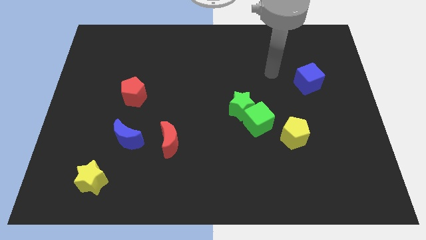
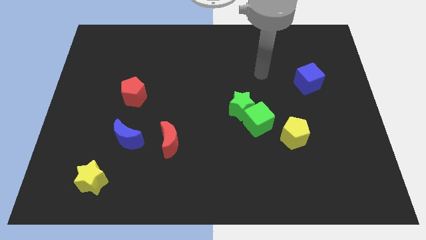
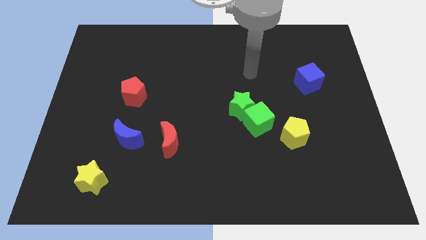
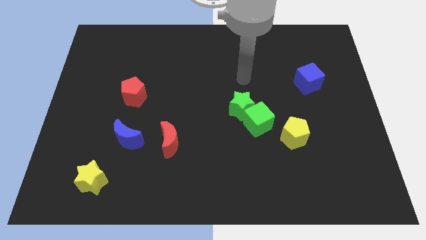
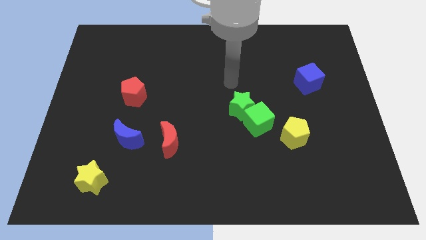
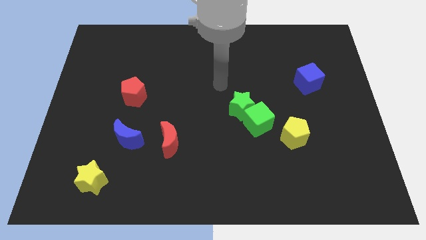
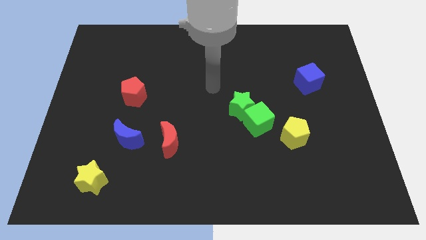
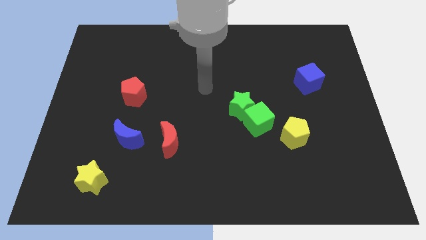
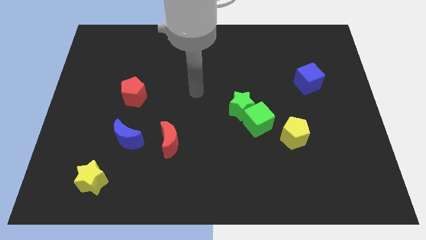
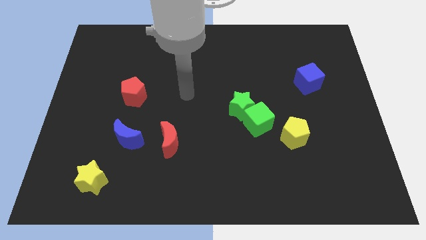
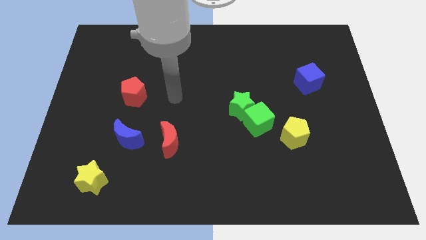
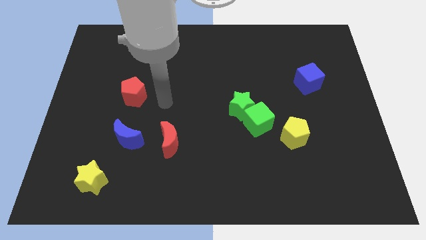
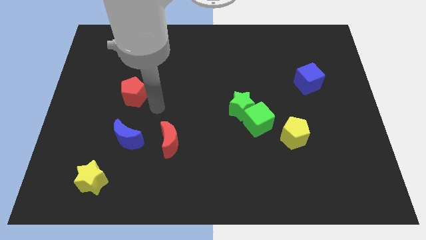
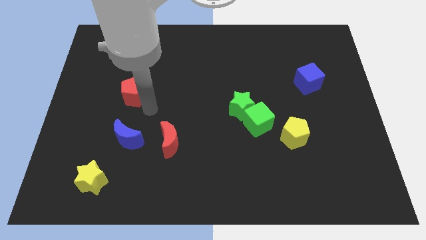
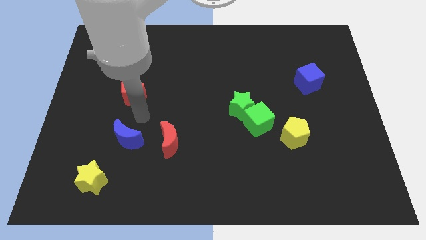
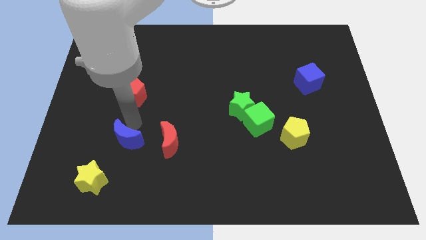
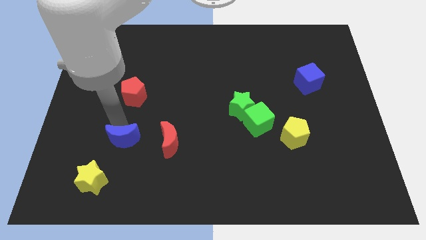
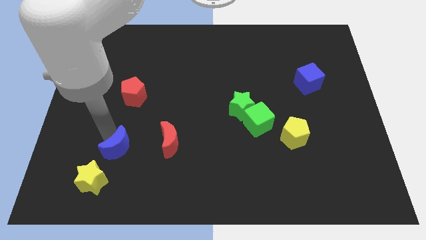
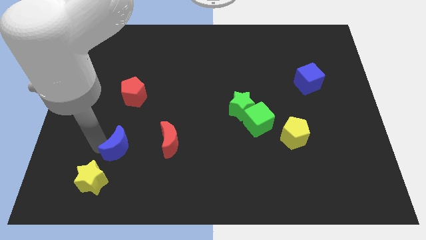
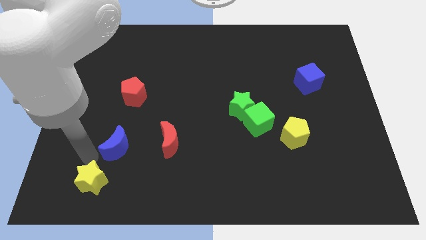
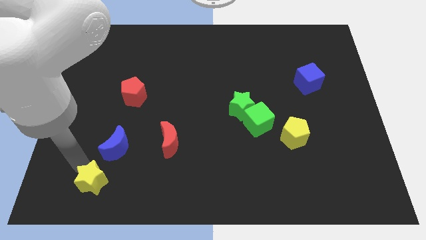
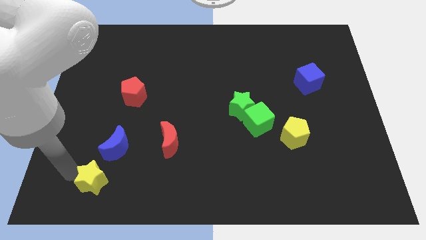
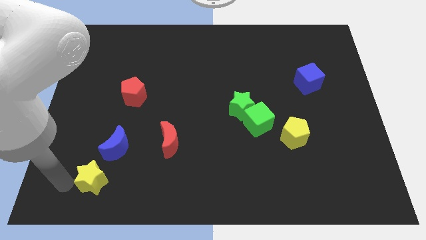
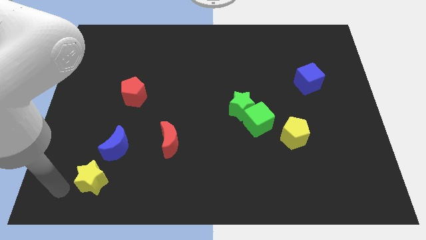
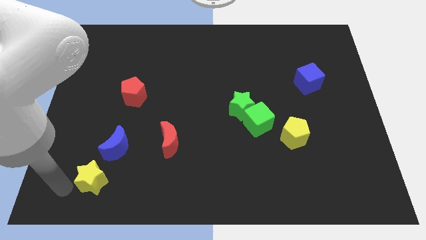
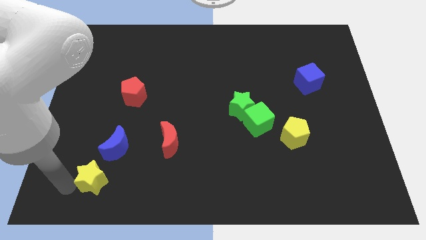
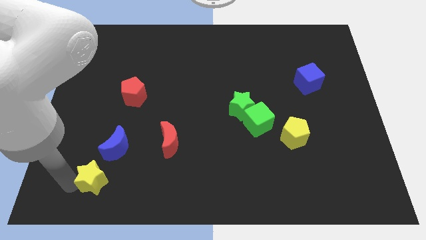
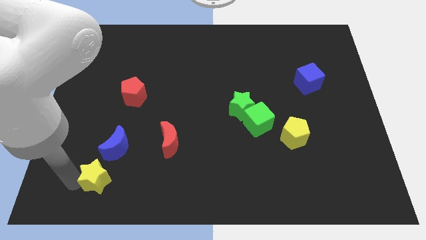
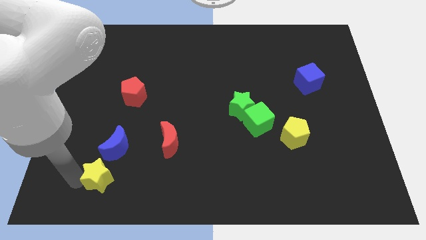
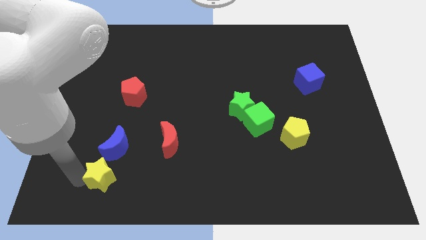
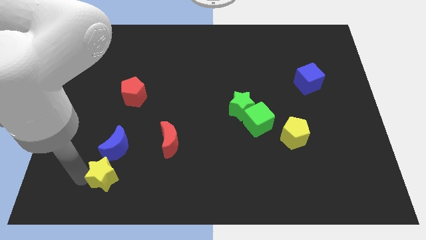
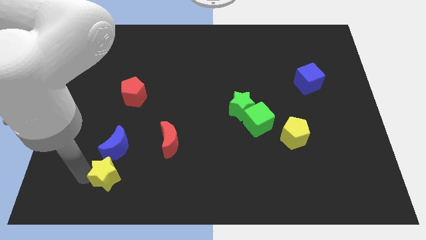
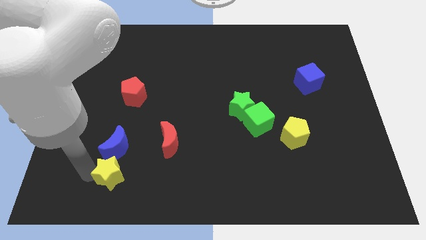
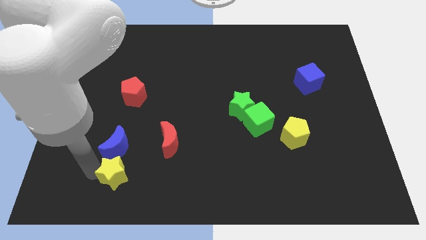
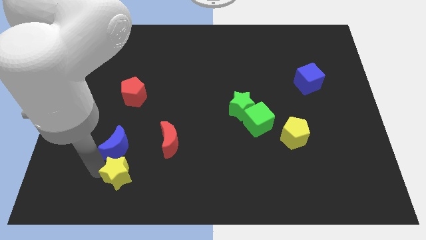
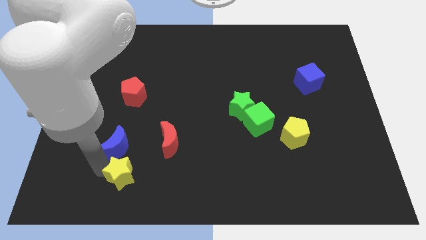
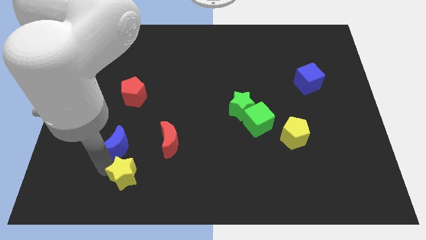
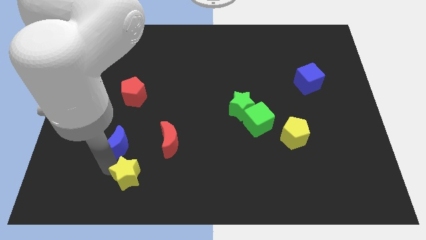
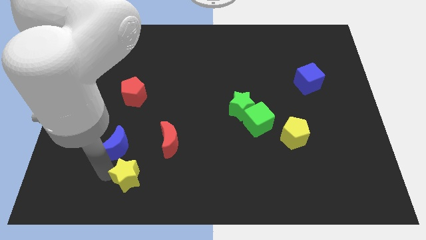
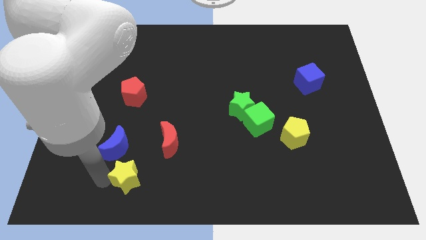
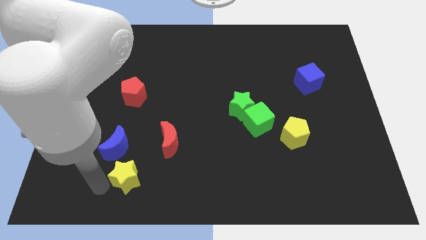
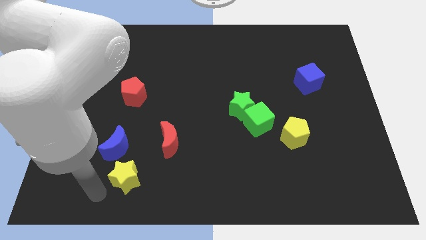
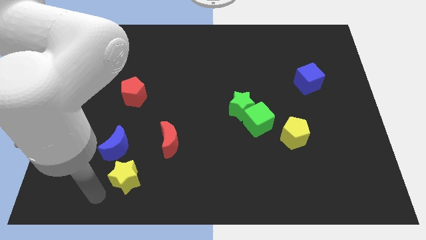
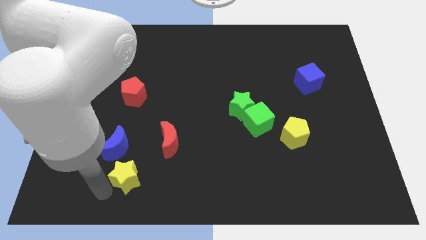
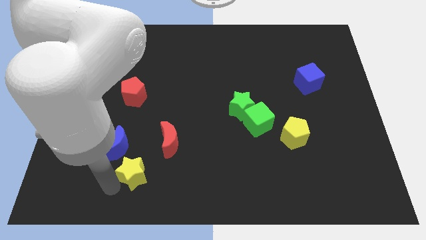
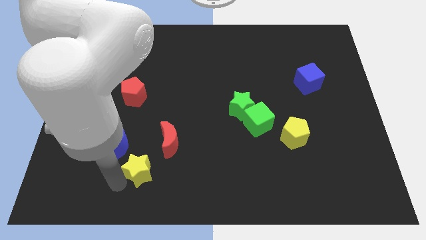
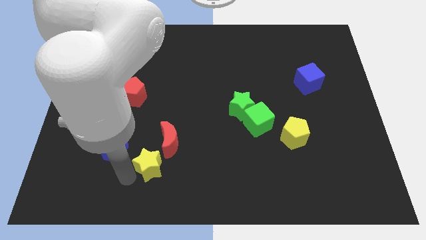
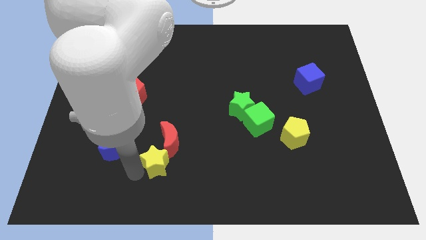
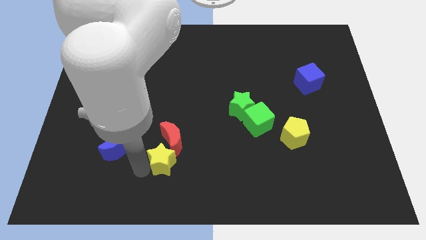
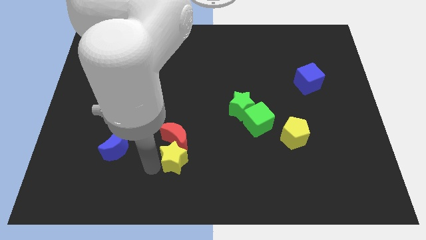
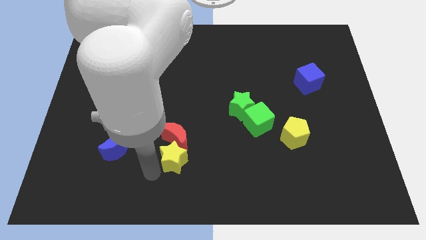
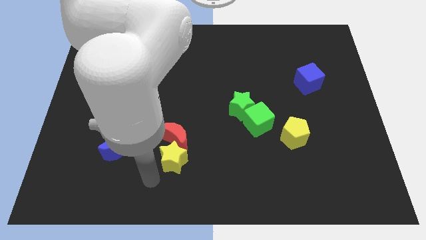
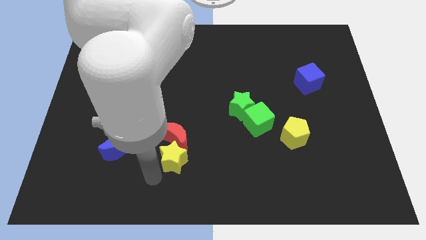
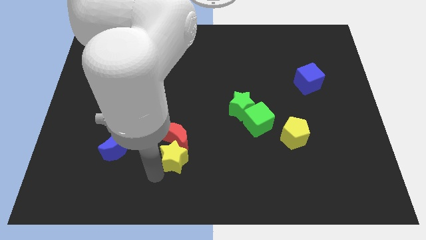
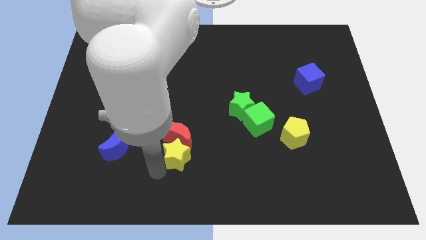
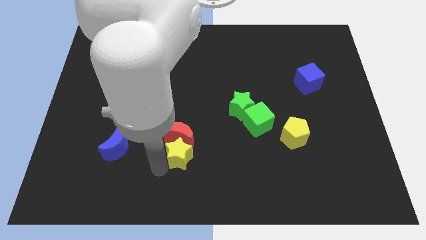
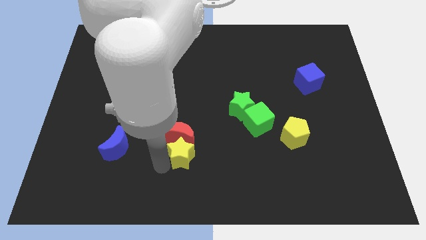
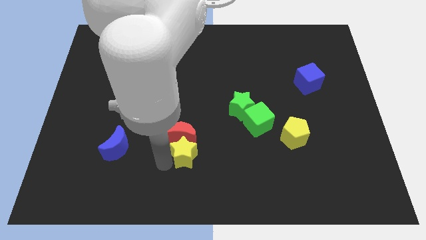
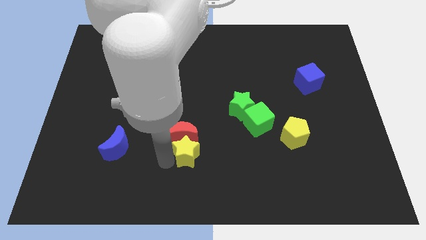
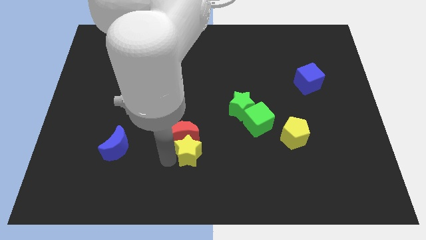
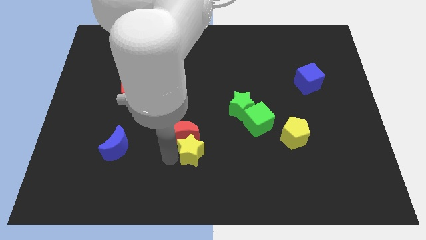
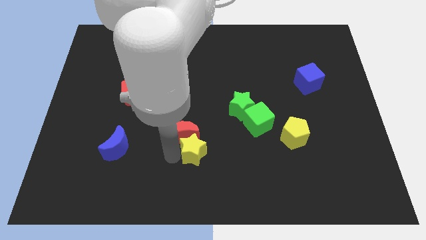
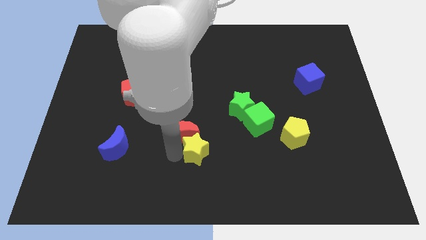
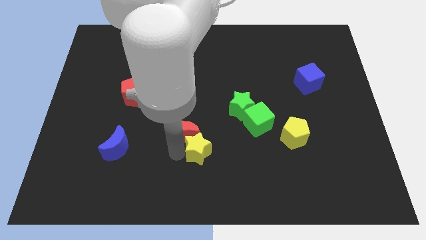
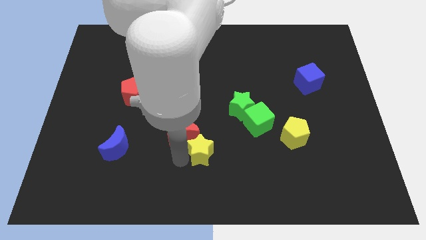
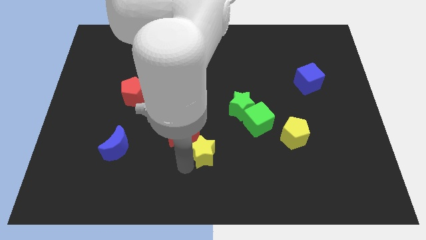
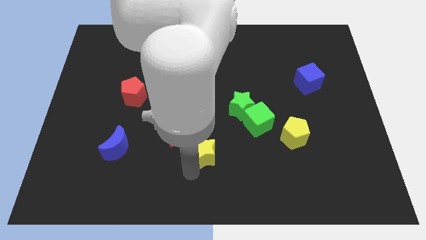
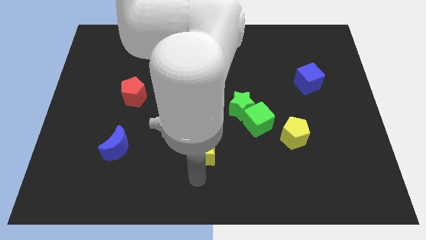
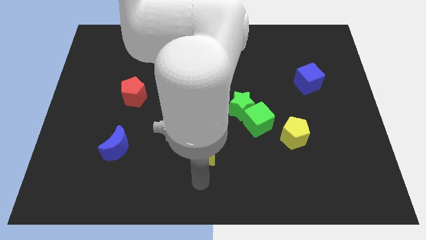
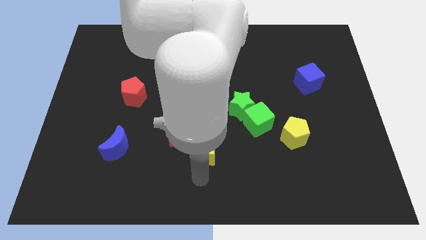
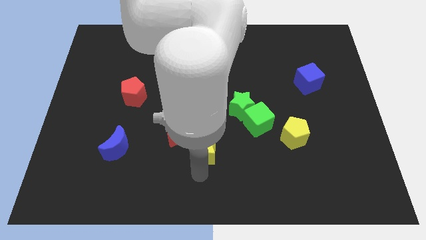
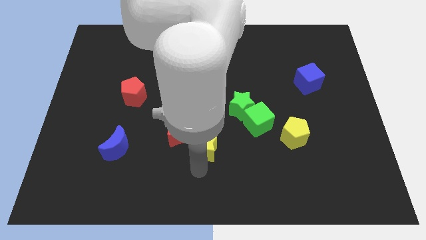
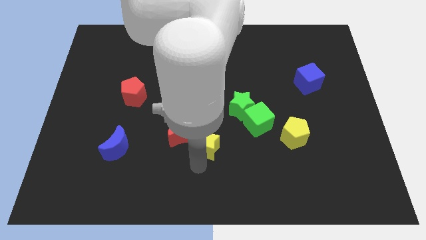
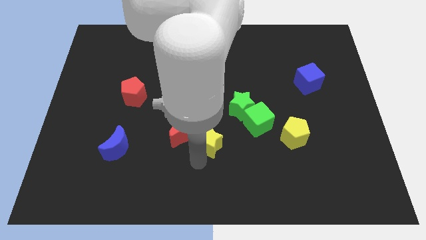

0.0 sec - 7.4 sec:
put the yellow star to the center of the board
